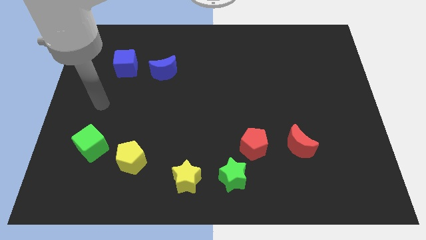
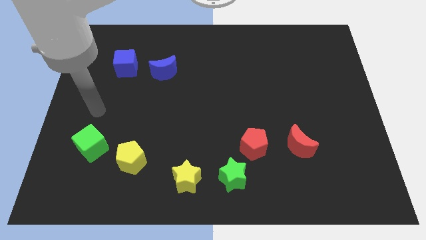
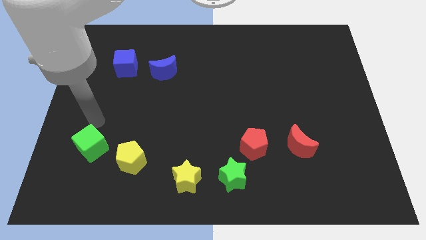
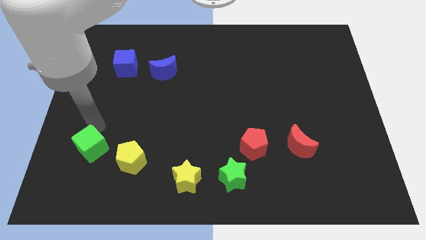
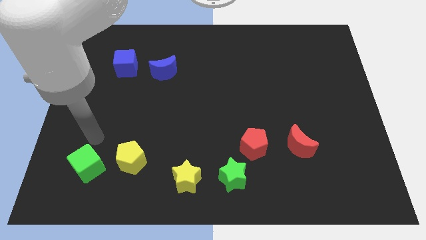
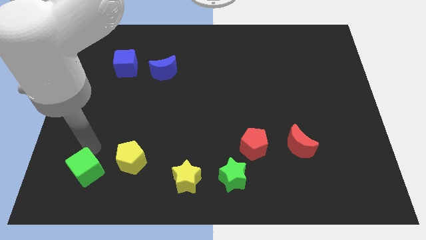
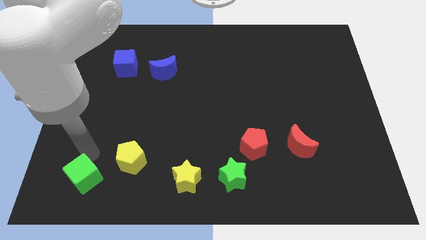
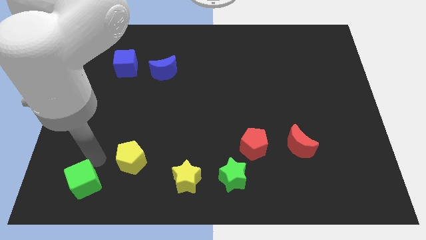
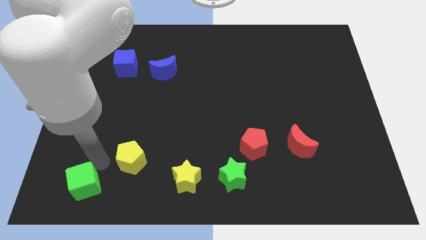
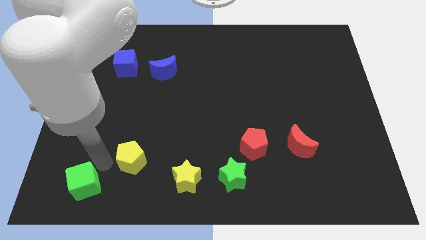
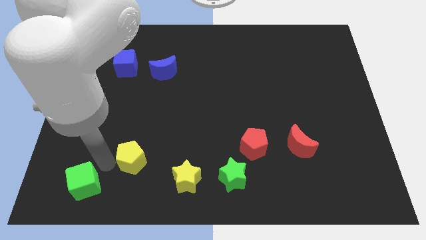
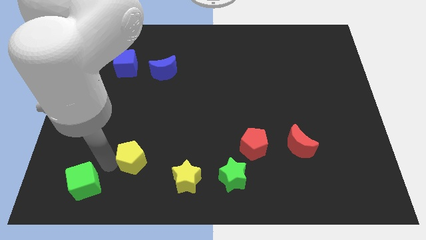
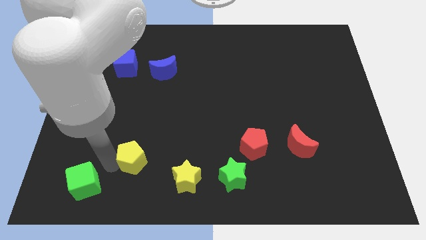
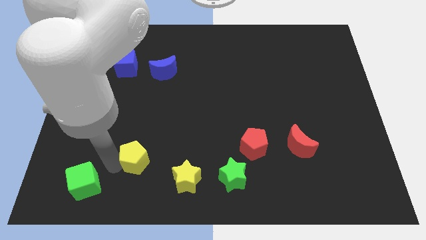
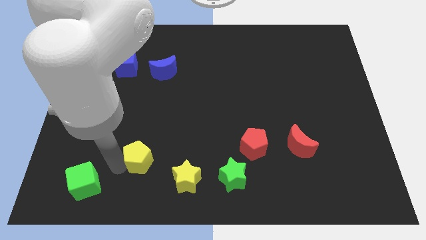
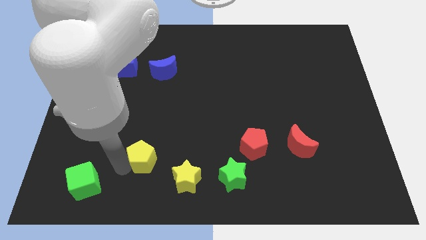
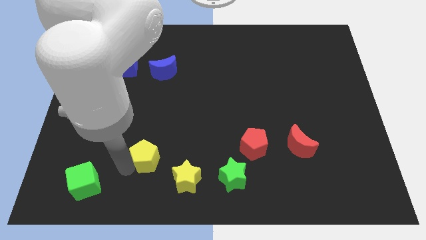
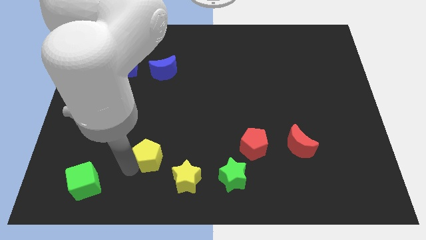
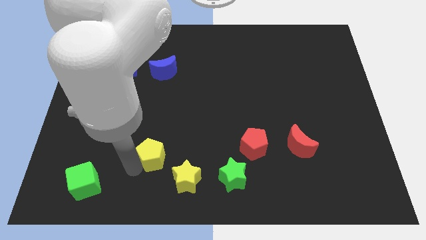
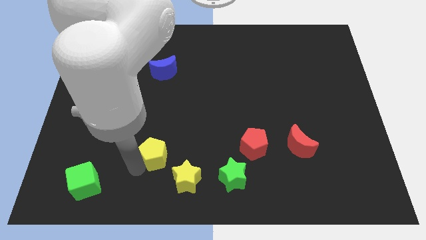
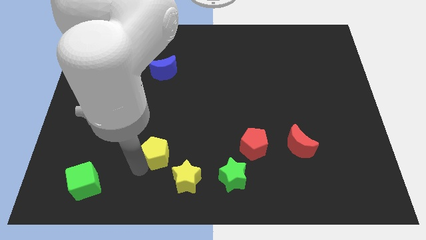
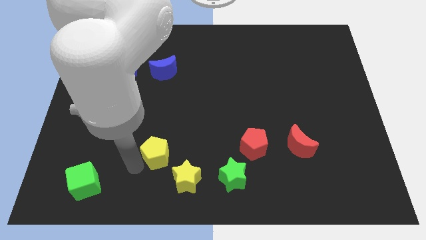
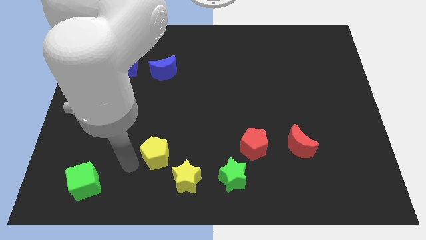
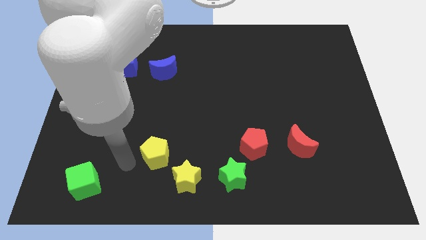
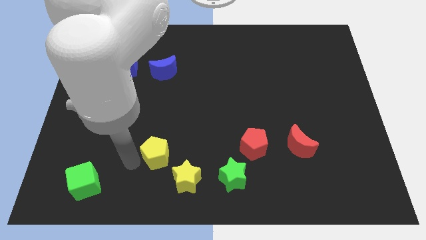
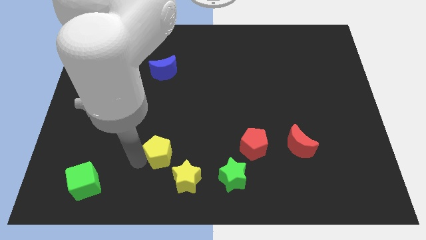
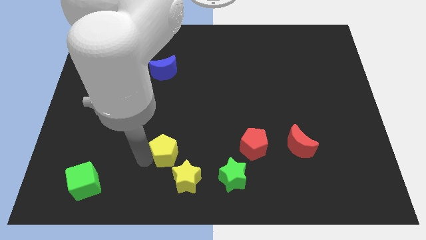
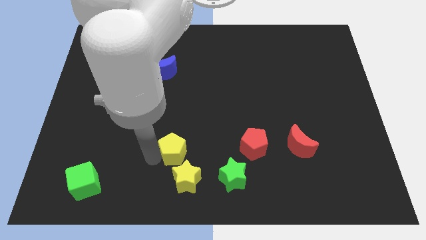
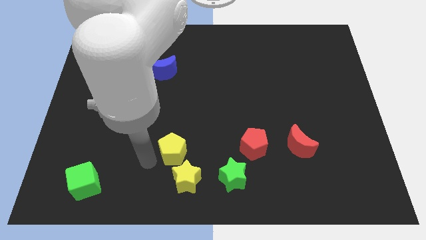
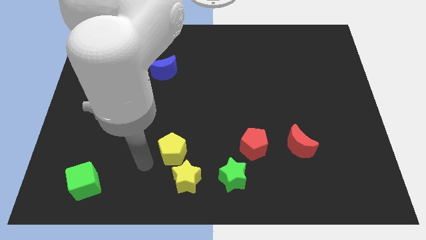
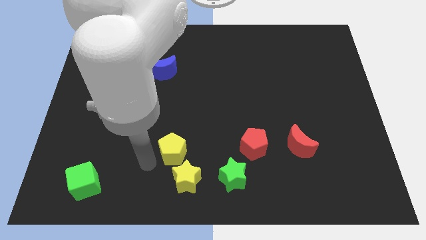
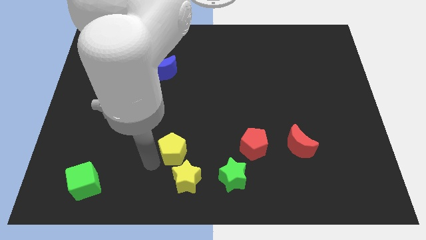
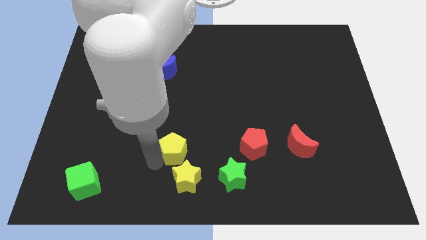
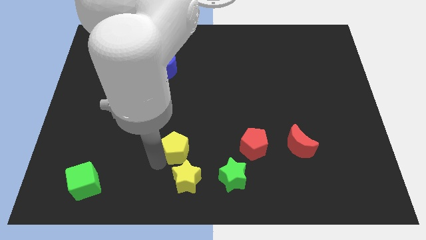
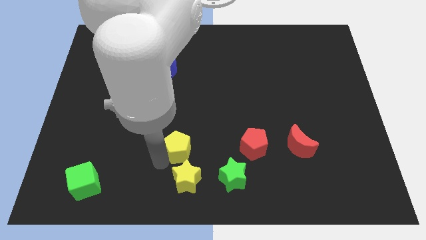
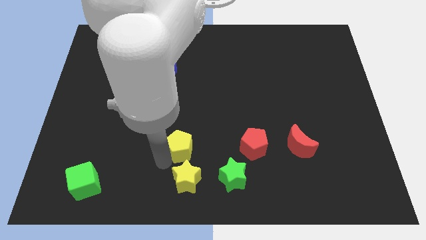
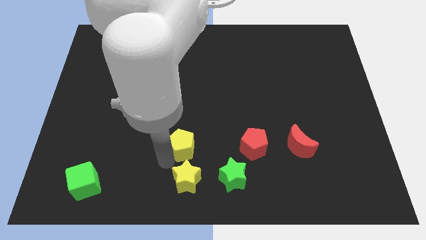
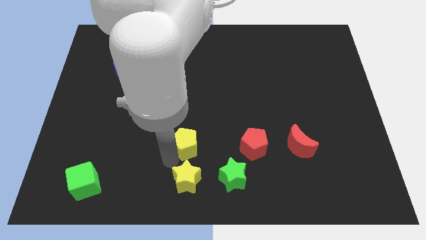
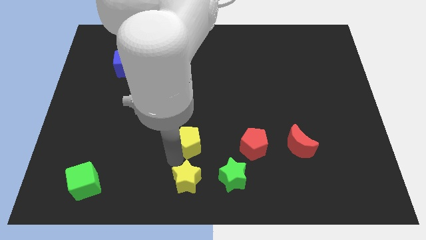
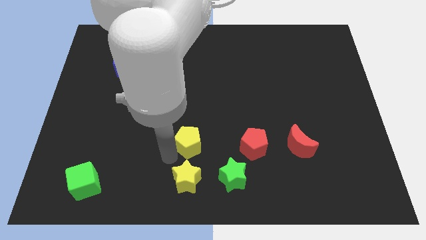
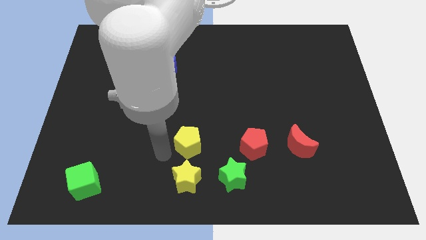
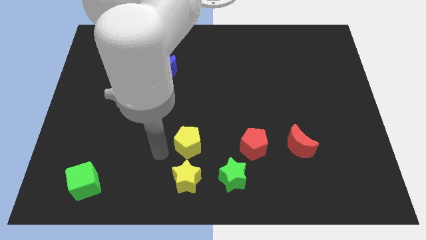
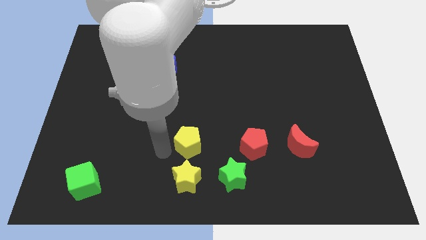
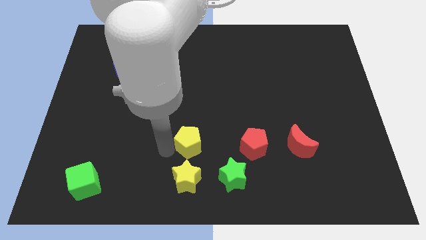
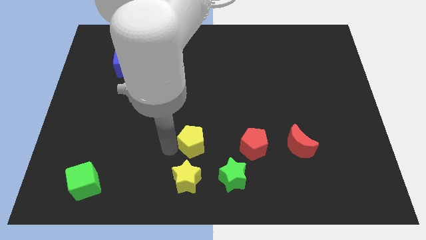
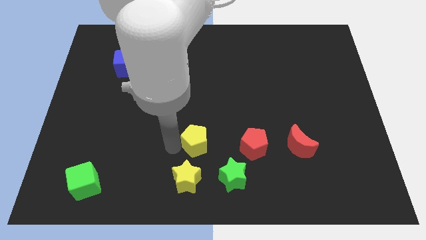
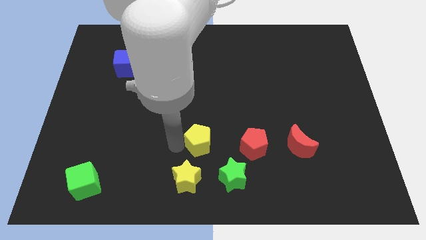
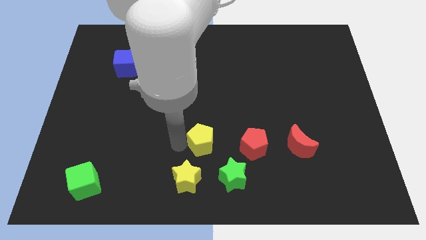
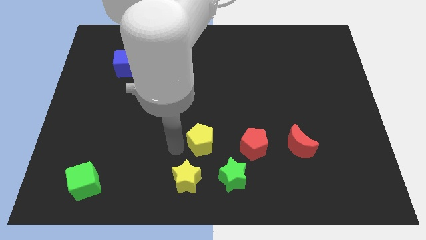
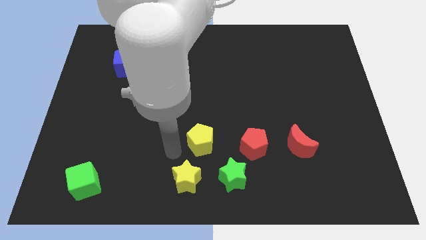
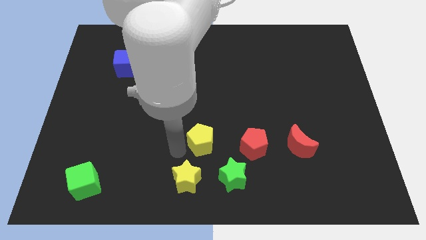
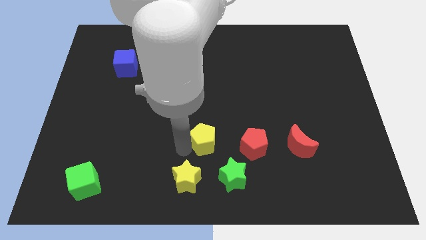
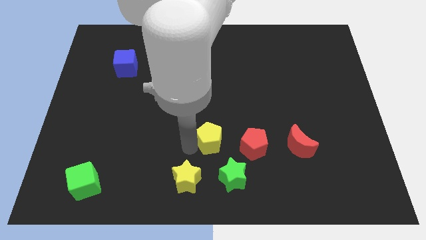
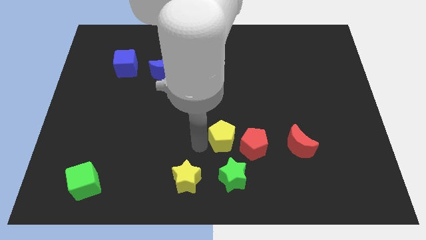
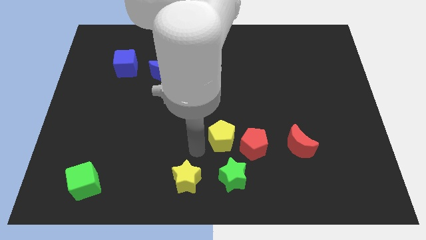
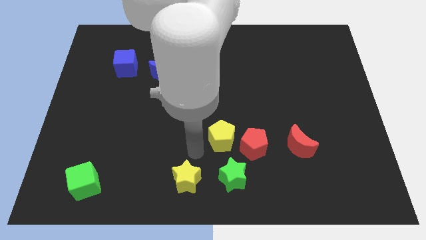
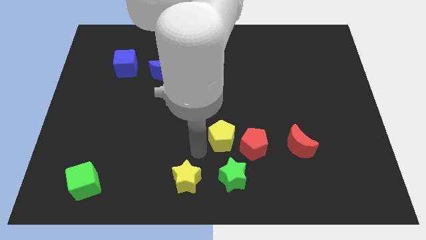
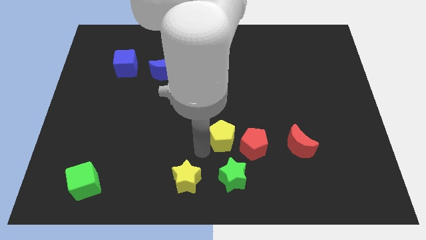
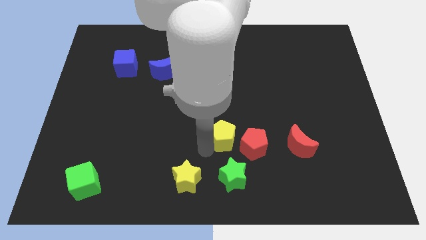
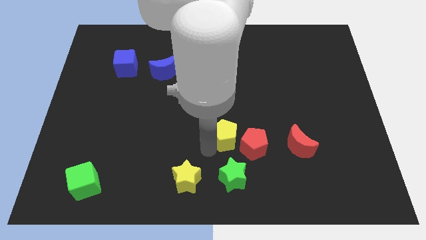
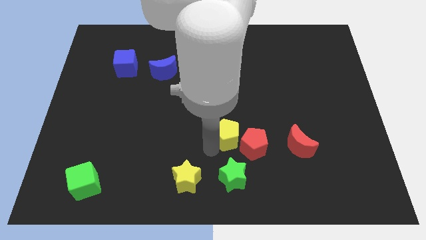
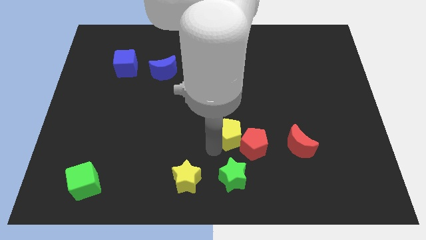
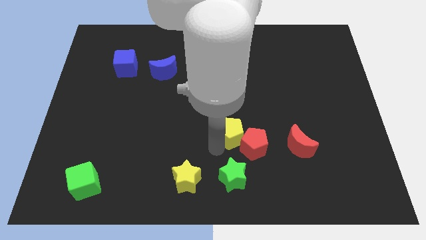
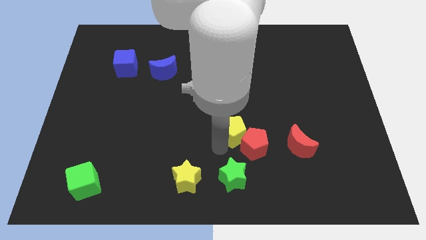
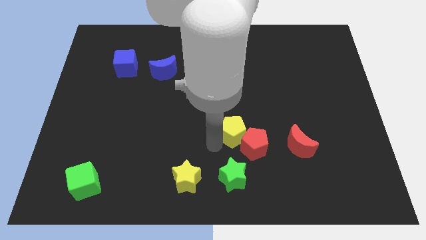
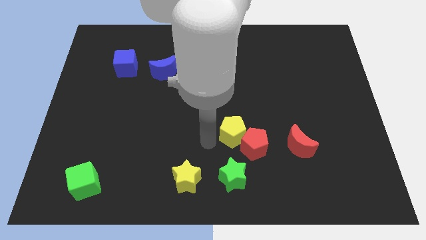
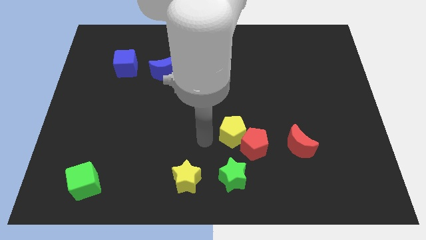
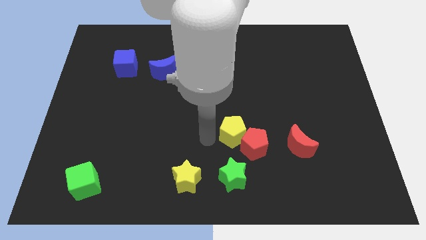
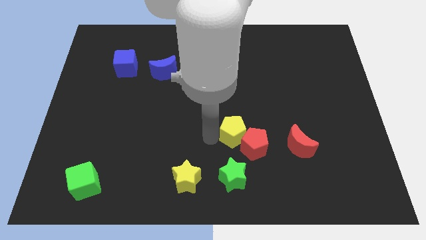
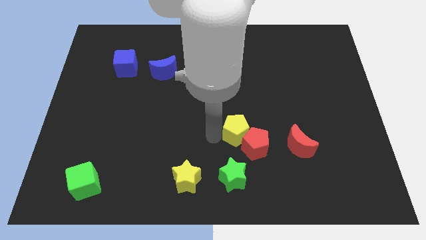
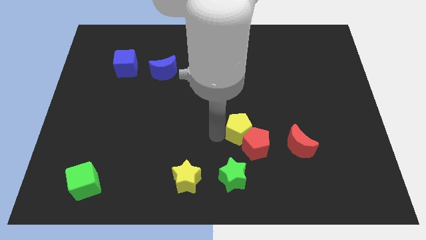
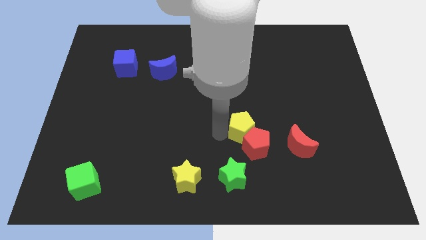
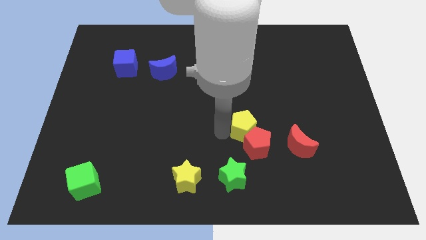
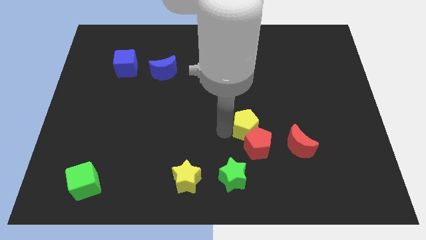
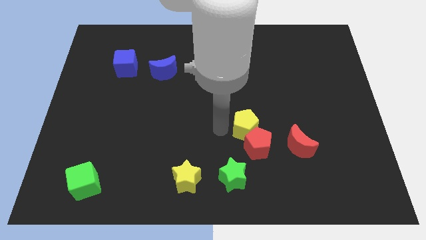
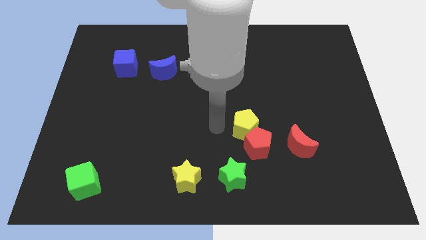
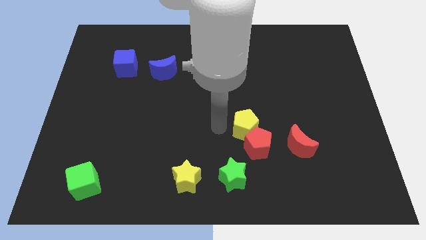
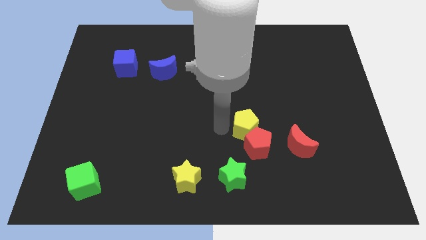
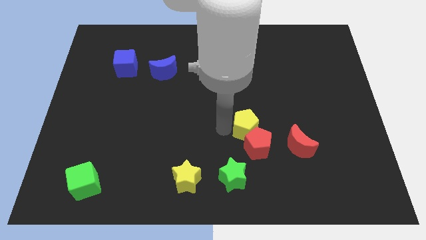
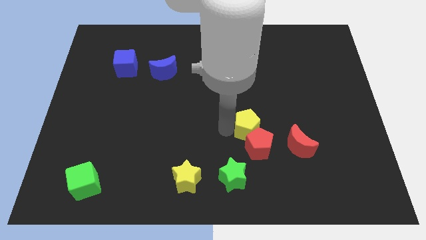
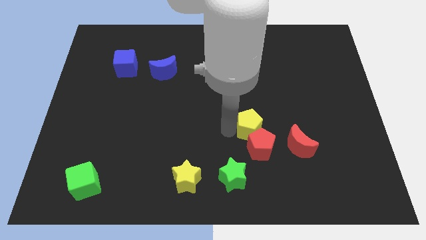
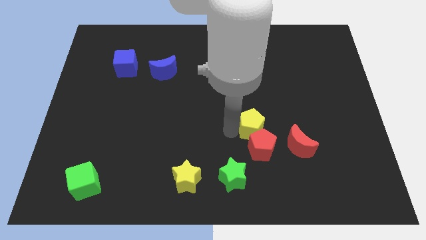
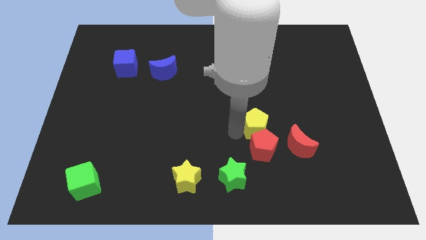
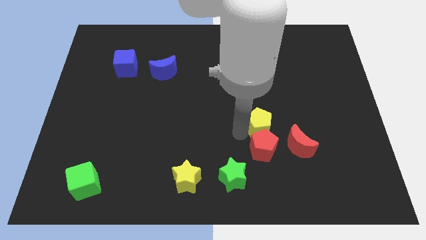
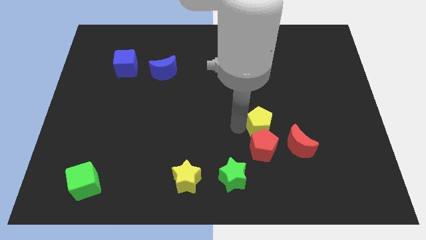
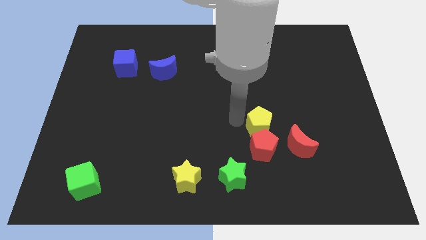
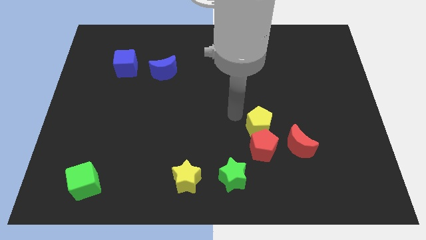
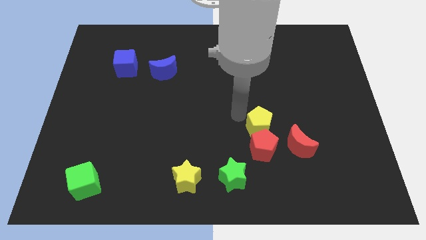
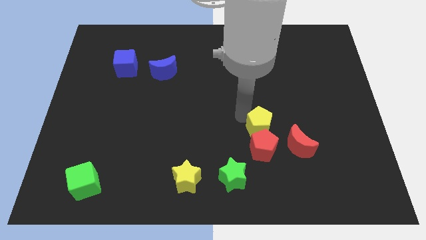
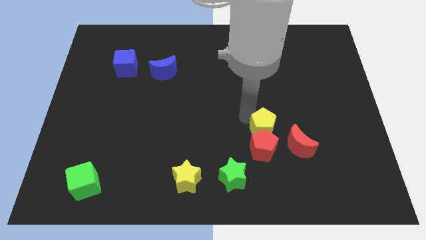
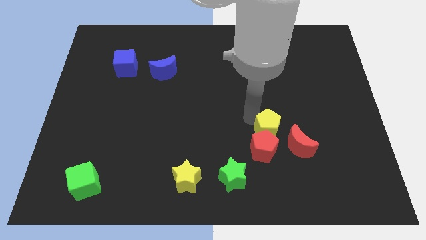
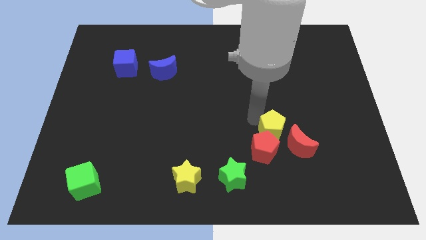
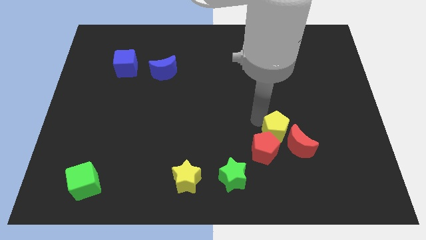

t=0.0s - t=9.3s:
push the yellow pentagon close to the red moon
